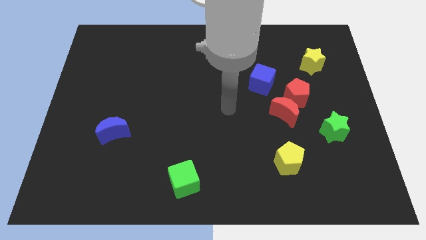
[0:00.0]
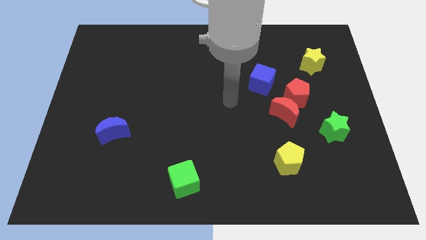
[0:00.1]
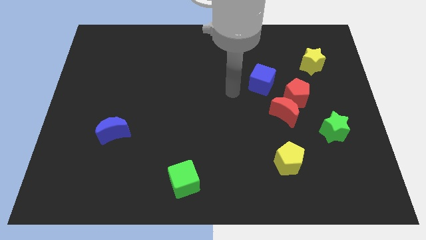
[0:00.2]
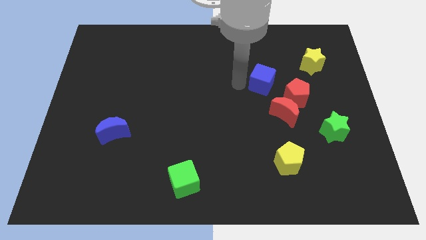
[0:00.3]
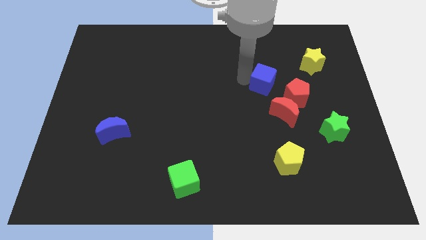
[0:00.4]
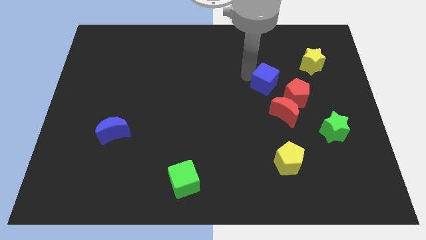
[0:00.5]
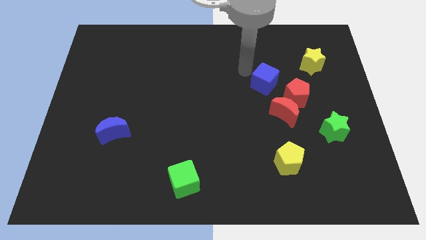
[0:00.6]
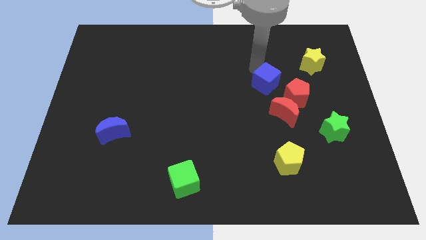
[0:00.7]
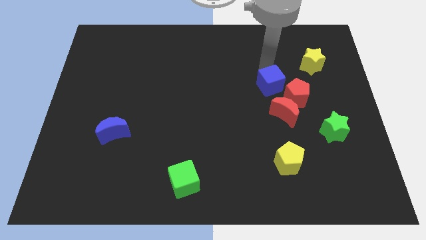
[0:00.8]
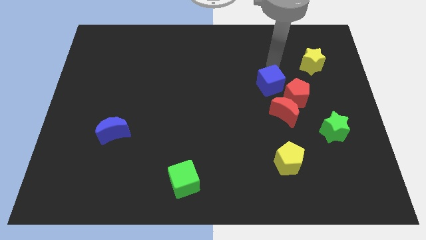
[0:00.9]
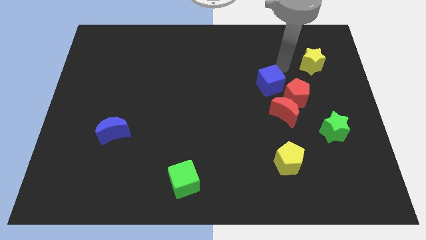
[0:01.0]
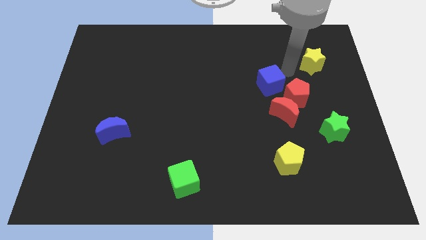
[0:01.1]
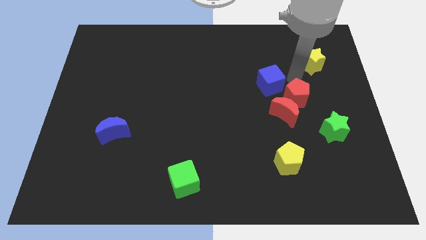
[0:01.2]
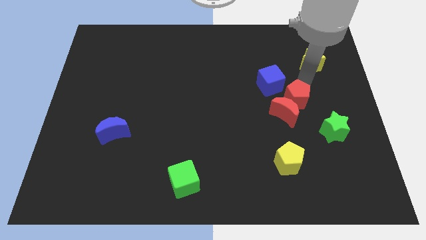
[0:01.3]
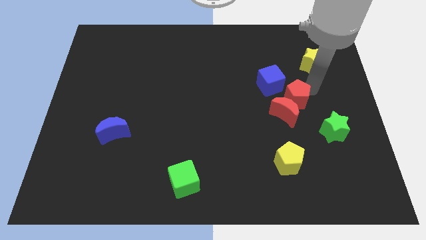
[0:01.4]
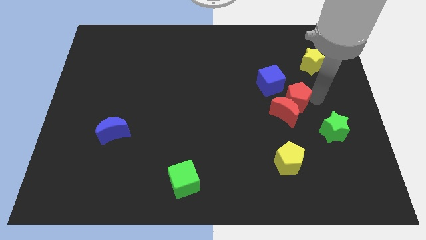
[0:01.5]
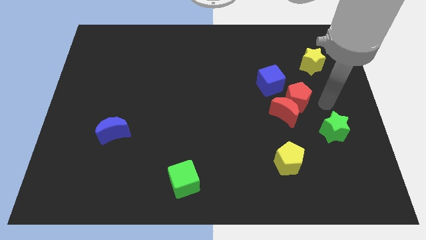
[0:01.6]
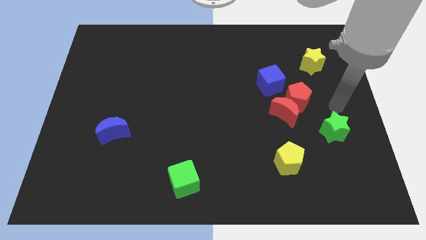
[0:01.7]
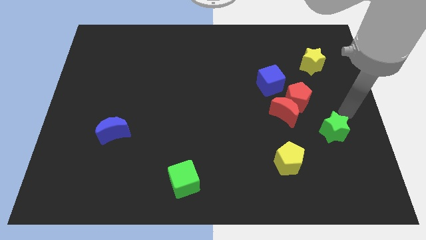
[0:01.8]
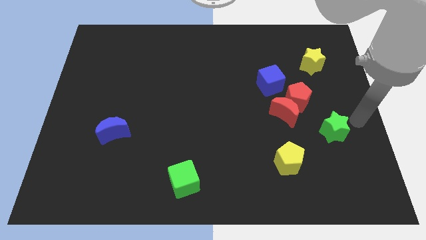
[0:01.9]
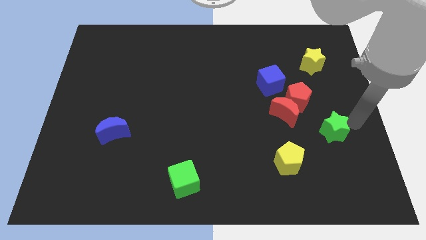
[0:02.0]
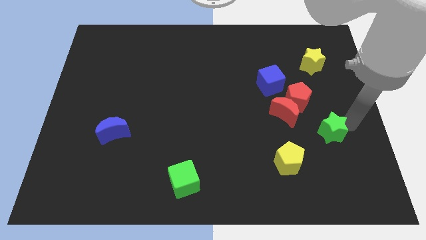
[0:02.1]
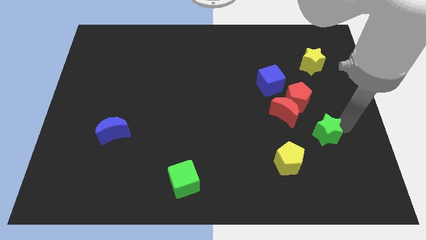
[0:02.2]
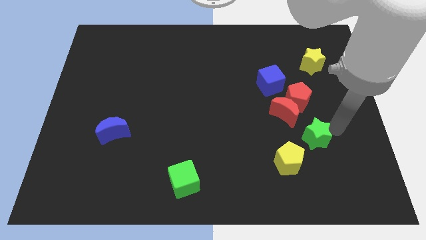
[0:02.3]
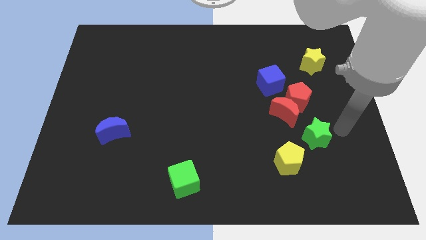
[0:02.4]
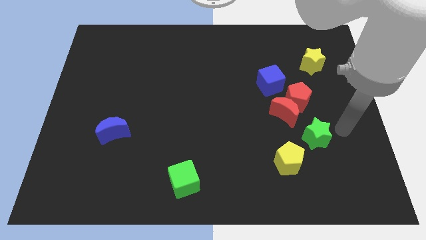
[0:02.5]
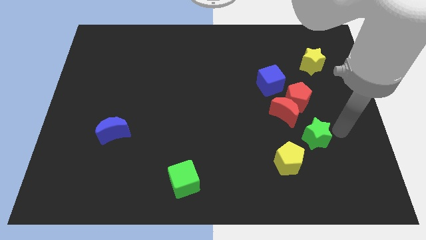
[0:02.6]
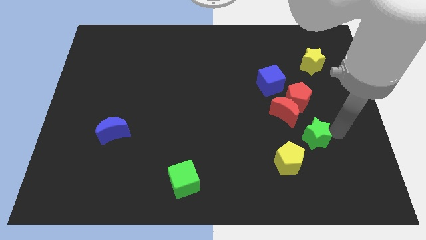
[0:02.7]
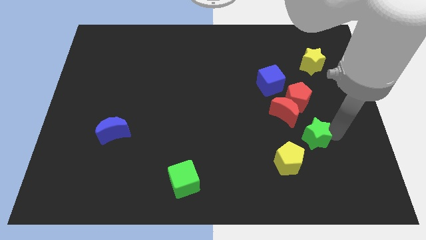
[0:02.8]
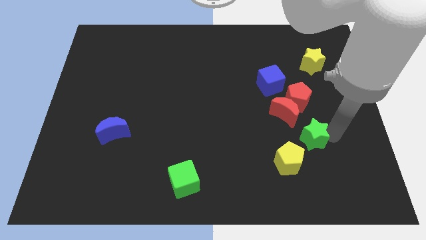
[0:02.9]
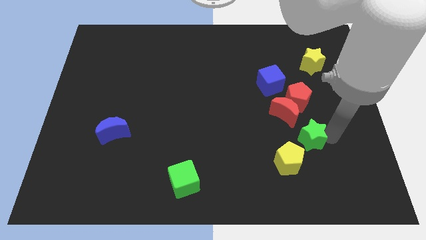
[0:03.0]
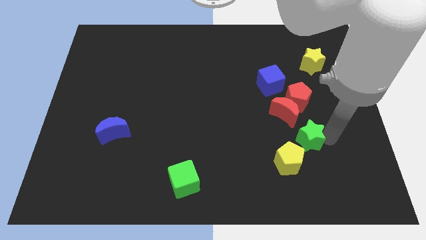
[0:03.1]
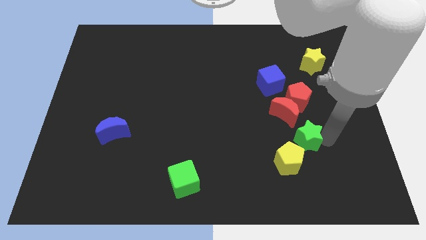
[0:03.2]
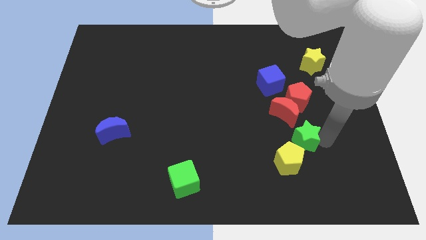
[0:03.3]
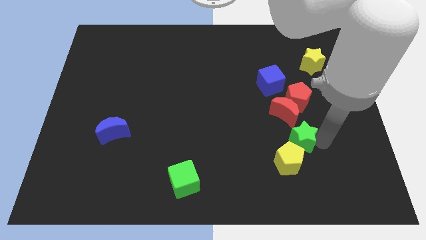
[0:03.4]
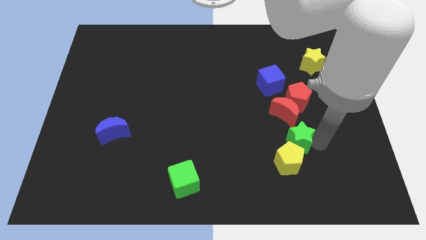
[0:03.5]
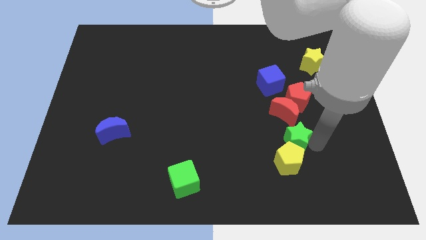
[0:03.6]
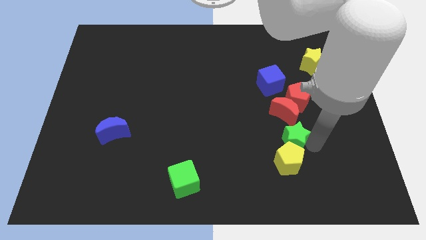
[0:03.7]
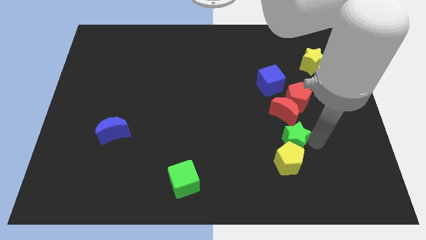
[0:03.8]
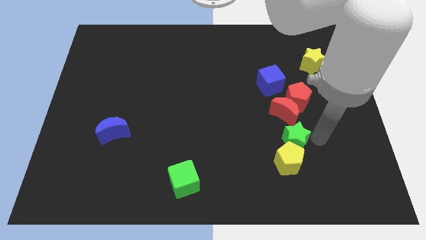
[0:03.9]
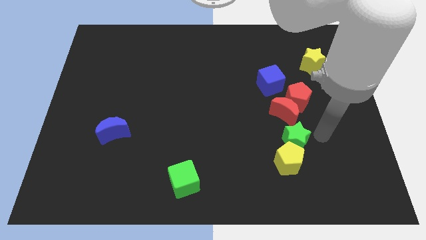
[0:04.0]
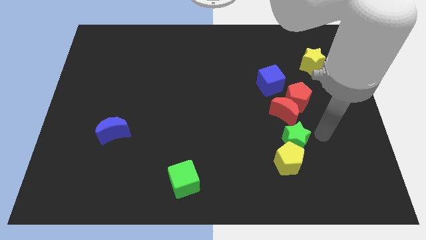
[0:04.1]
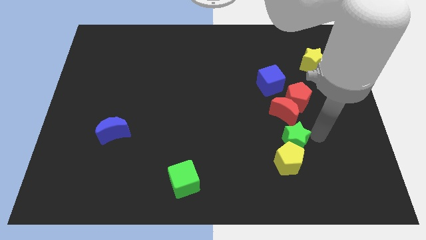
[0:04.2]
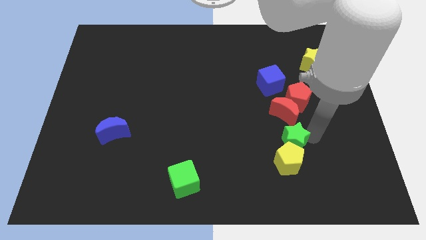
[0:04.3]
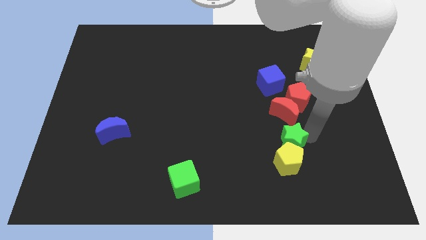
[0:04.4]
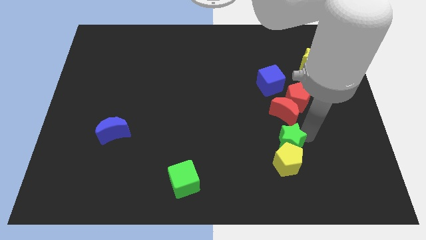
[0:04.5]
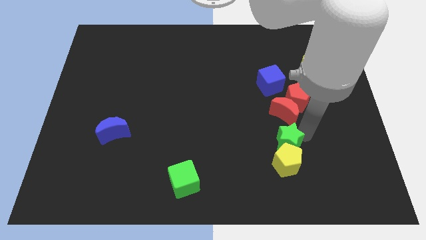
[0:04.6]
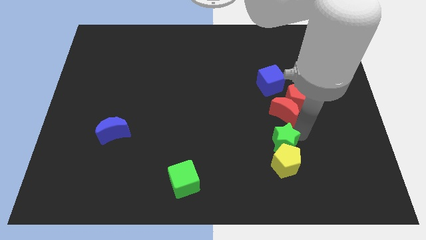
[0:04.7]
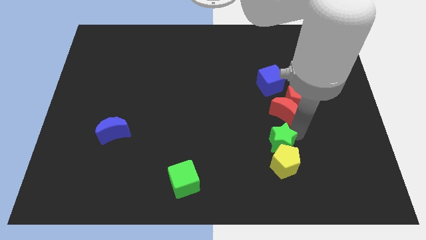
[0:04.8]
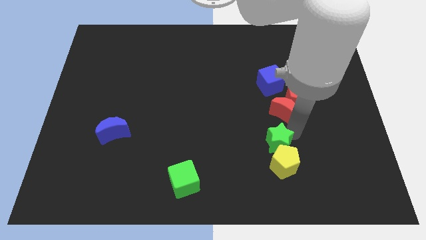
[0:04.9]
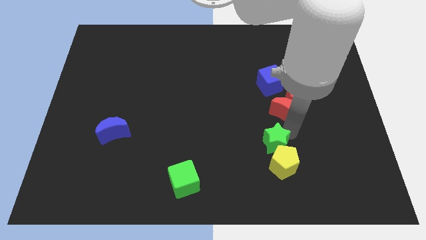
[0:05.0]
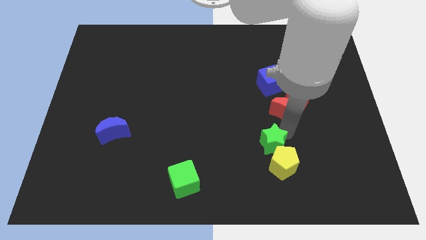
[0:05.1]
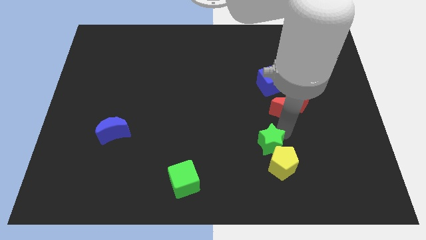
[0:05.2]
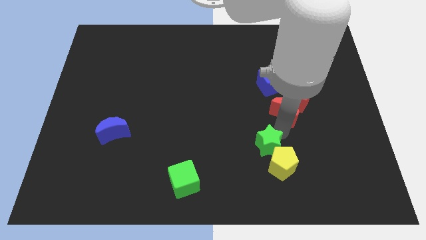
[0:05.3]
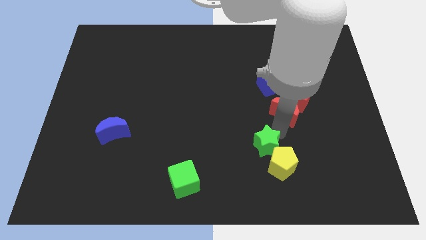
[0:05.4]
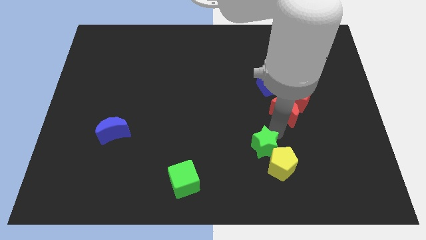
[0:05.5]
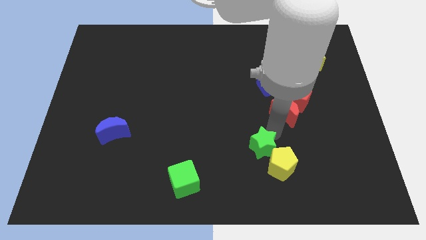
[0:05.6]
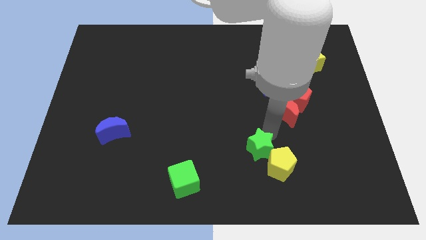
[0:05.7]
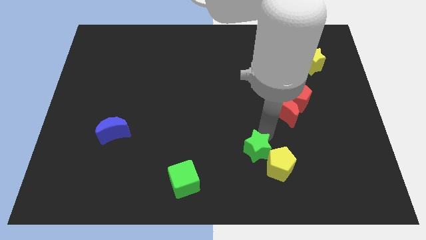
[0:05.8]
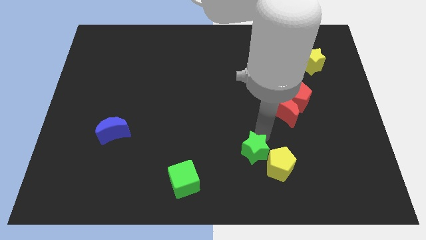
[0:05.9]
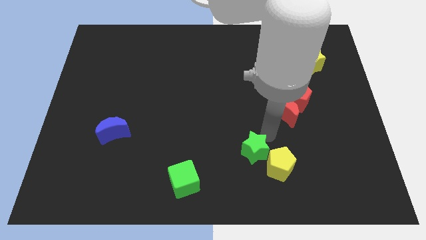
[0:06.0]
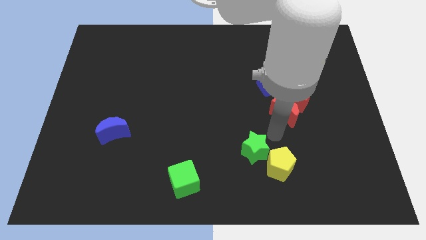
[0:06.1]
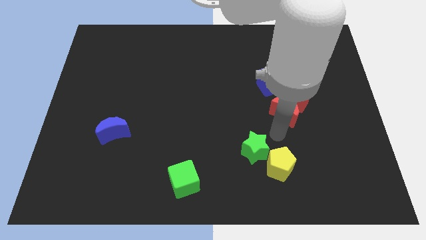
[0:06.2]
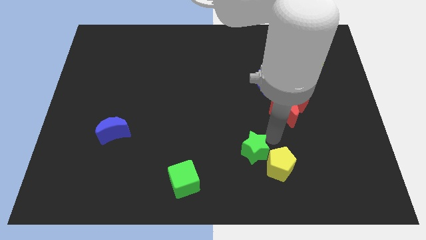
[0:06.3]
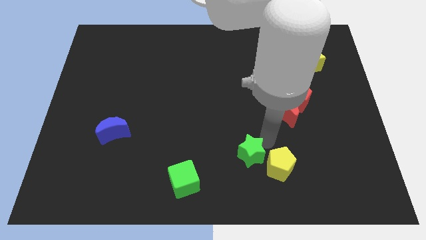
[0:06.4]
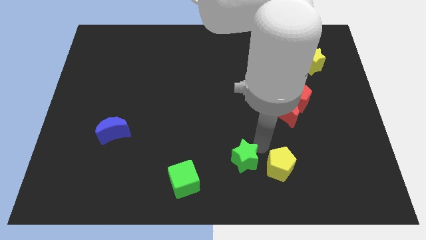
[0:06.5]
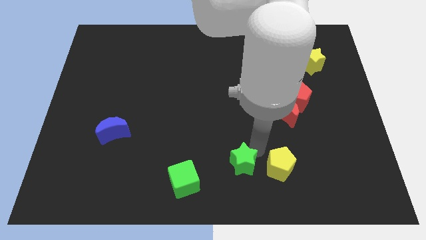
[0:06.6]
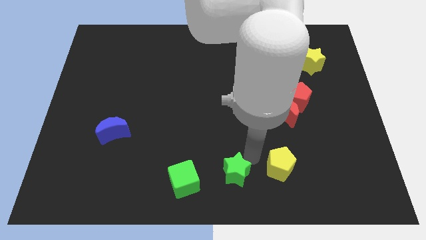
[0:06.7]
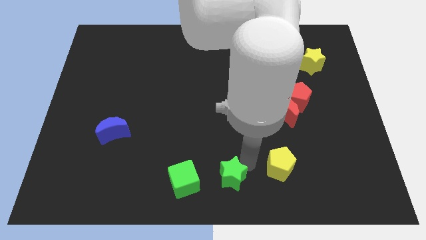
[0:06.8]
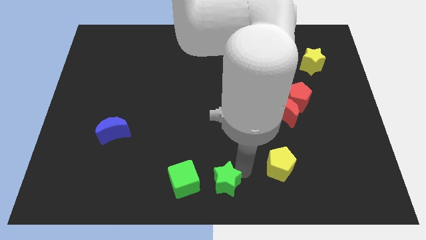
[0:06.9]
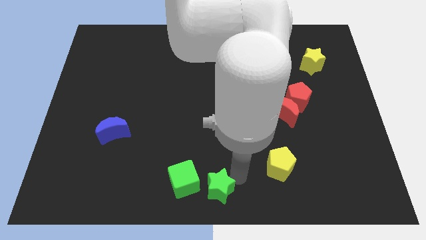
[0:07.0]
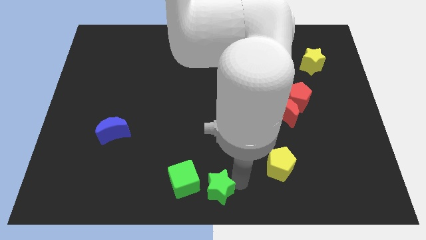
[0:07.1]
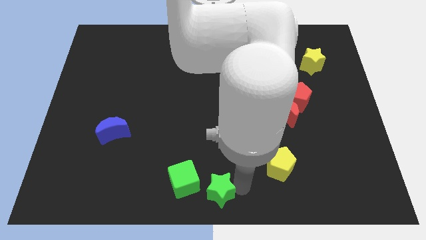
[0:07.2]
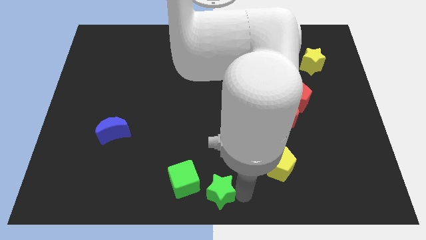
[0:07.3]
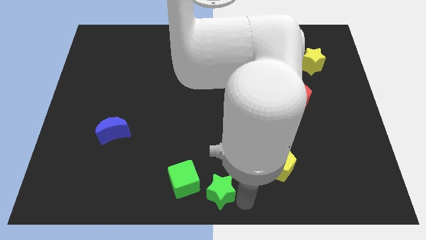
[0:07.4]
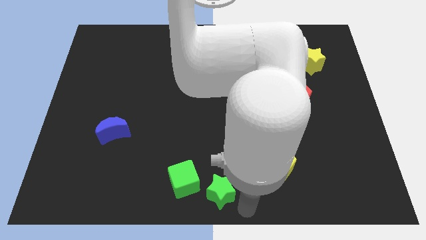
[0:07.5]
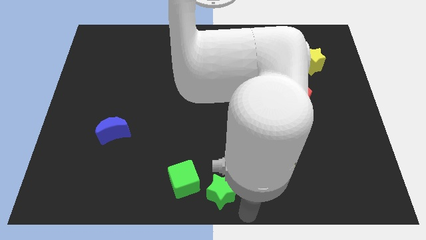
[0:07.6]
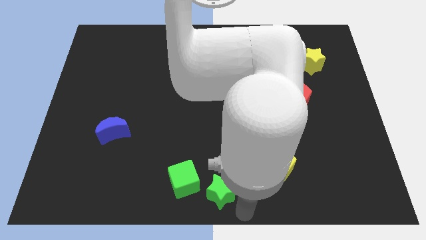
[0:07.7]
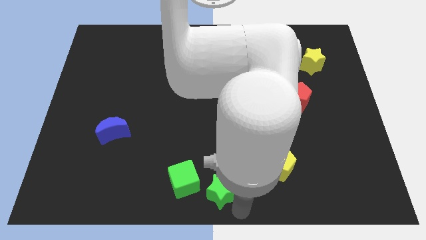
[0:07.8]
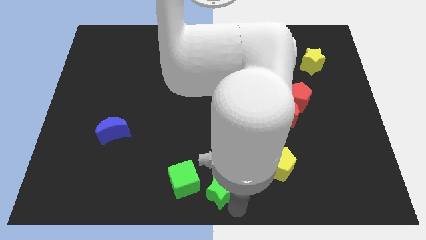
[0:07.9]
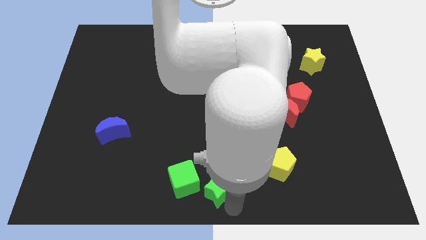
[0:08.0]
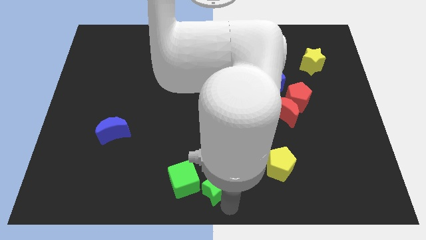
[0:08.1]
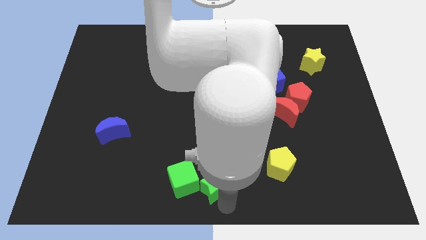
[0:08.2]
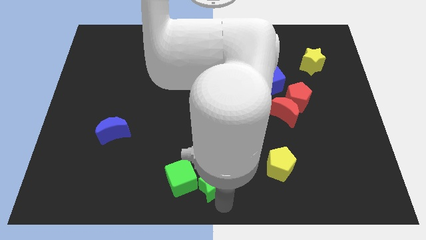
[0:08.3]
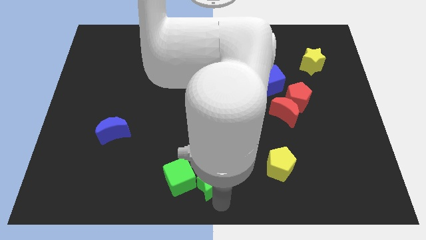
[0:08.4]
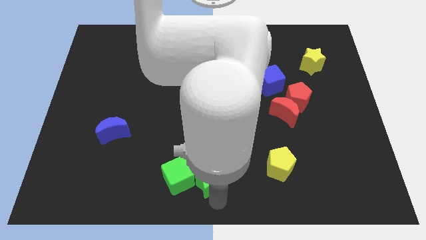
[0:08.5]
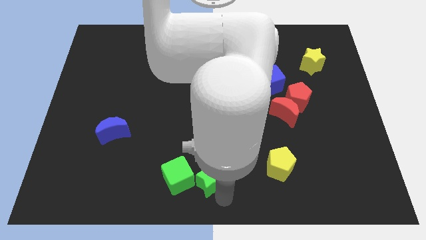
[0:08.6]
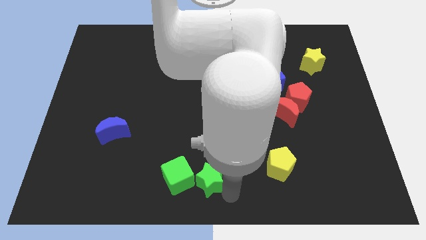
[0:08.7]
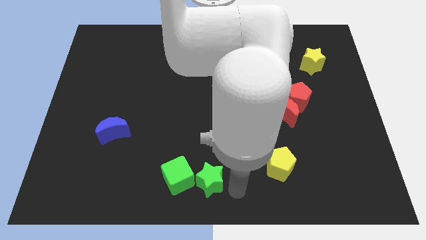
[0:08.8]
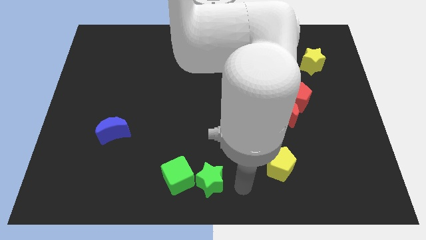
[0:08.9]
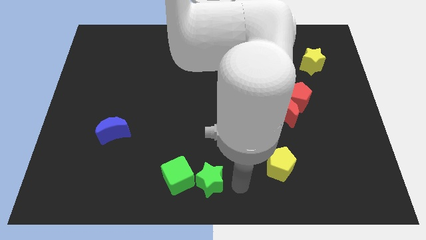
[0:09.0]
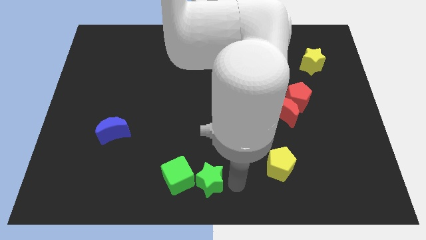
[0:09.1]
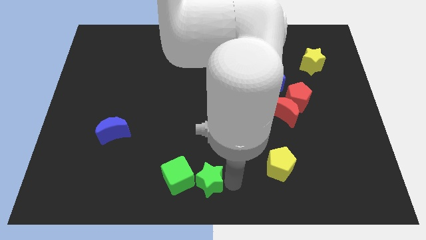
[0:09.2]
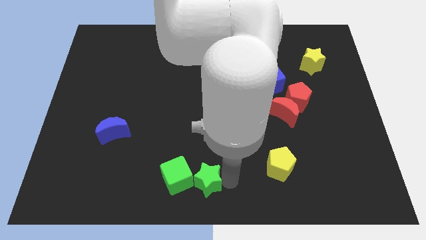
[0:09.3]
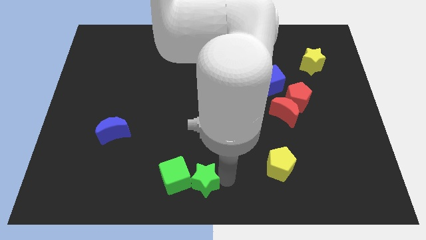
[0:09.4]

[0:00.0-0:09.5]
move the green star close to the green cube
